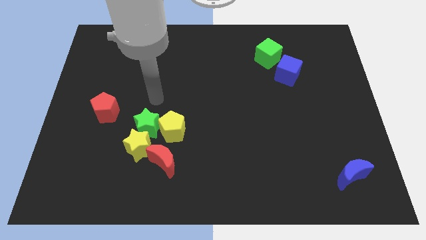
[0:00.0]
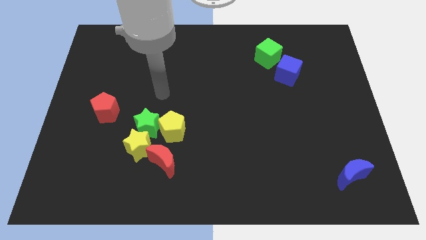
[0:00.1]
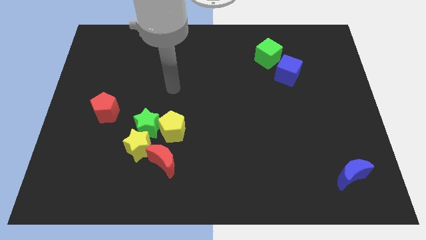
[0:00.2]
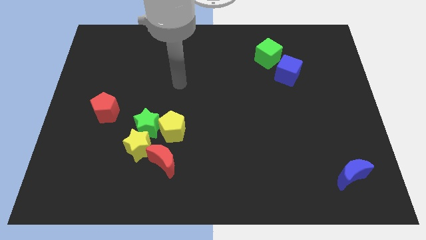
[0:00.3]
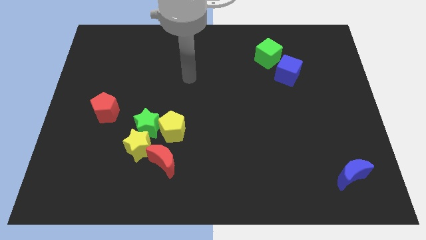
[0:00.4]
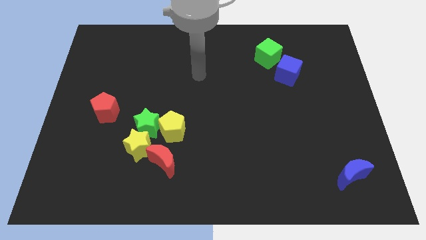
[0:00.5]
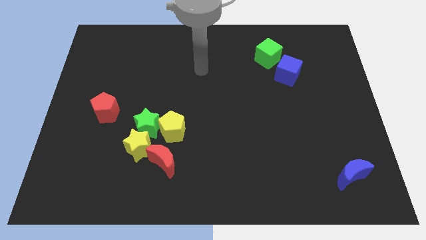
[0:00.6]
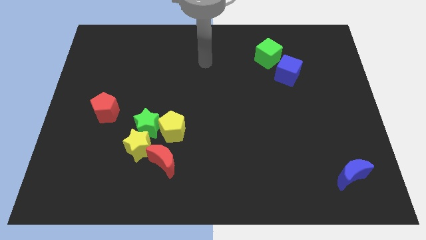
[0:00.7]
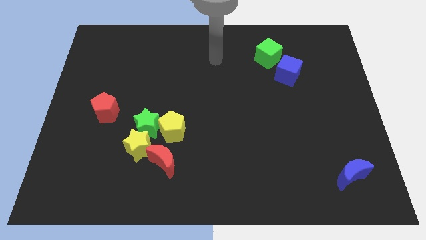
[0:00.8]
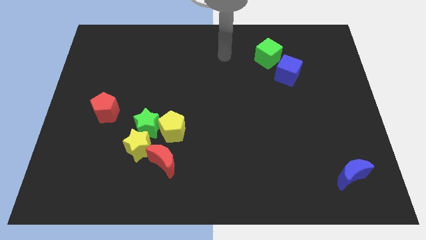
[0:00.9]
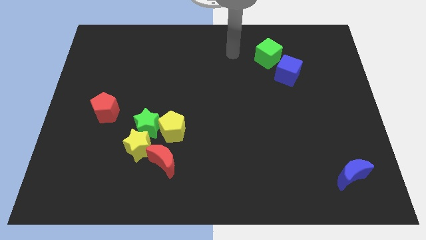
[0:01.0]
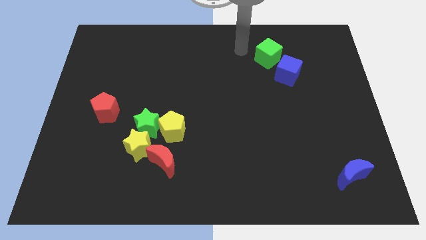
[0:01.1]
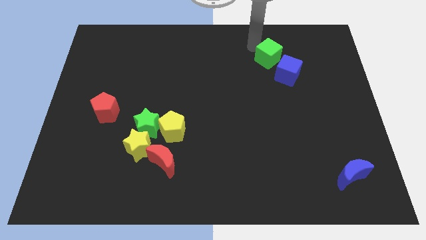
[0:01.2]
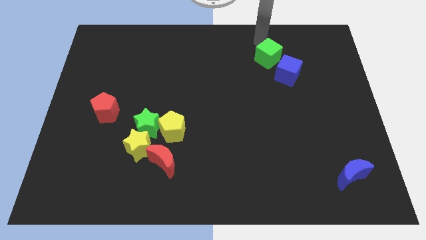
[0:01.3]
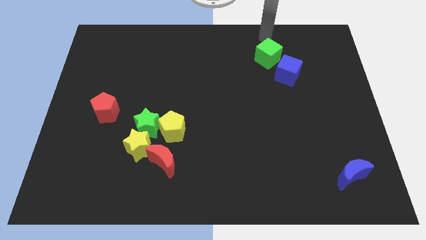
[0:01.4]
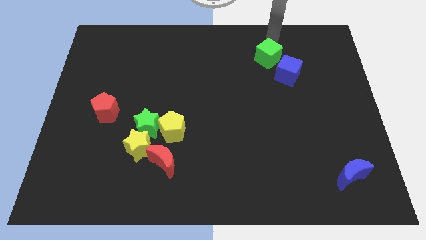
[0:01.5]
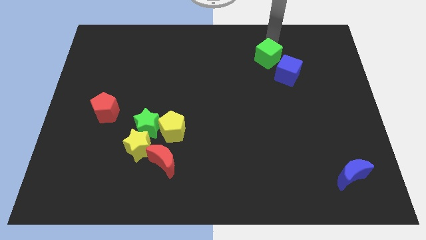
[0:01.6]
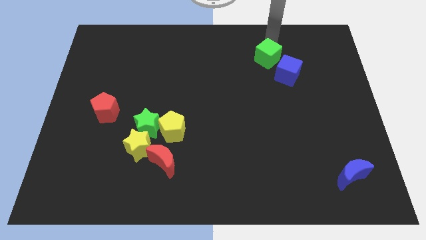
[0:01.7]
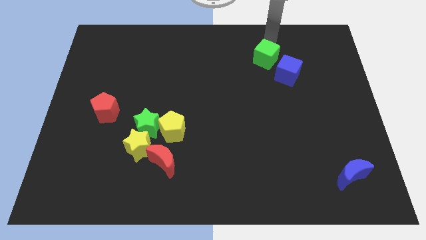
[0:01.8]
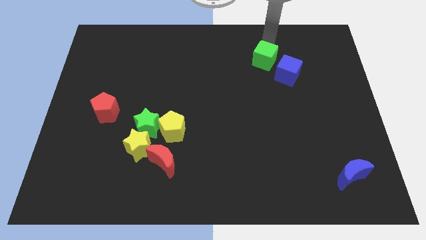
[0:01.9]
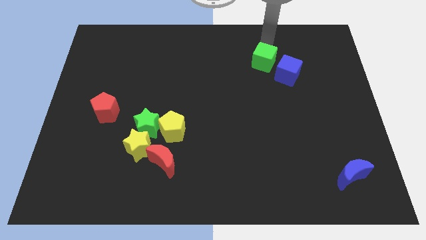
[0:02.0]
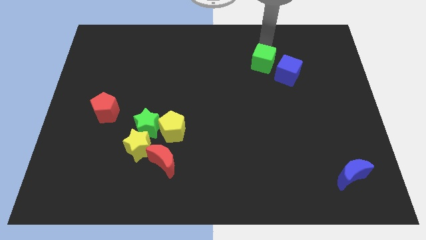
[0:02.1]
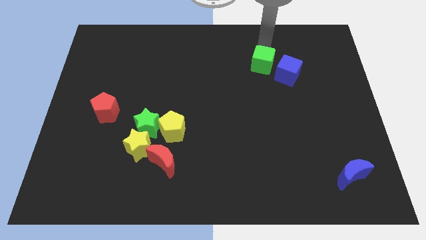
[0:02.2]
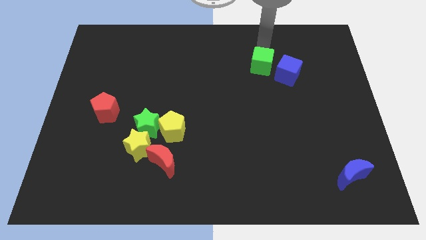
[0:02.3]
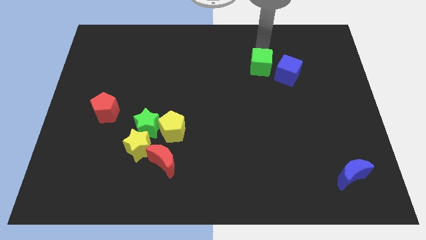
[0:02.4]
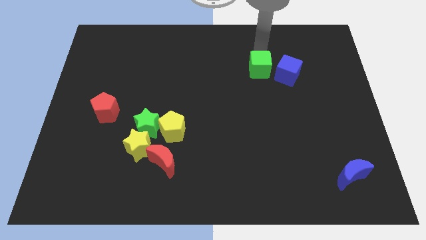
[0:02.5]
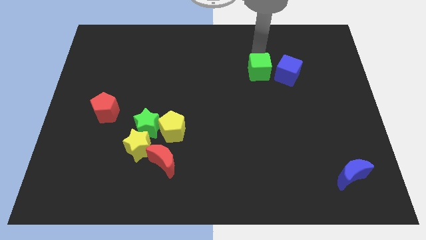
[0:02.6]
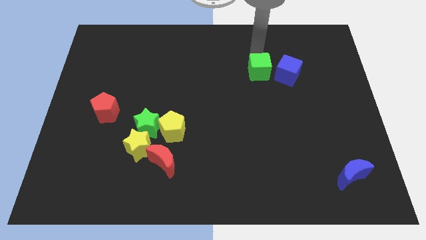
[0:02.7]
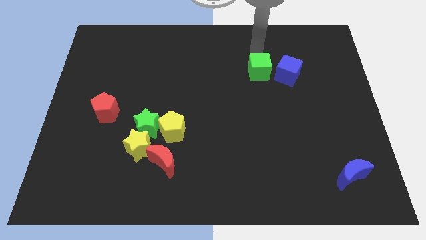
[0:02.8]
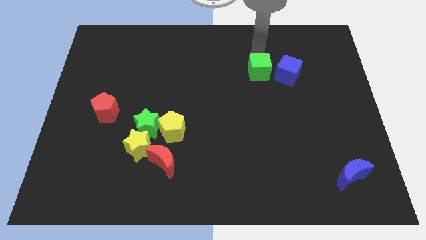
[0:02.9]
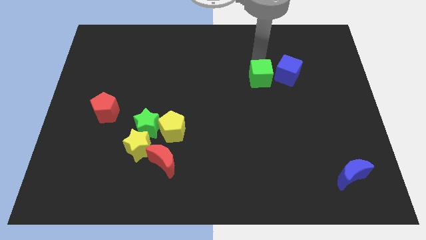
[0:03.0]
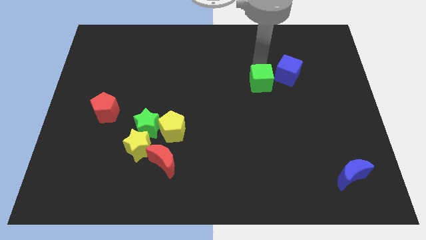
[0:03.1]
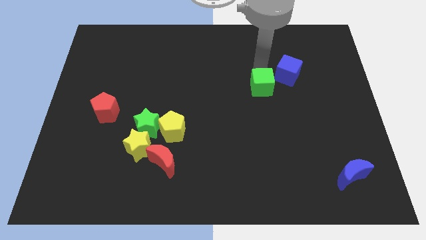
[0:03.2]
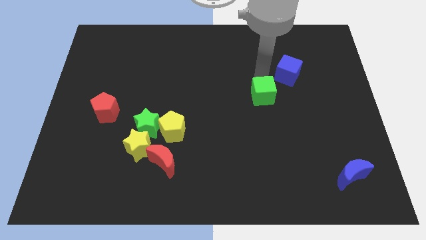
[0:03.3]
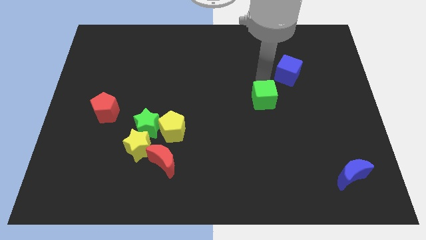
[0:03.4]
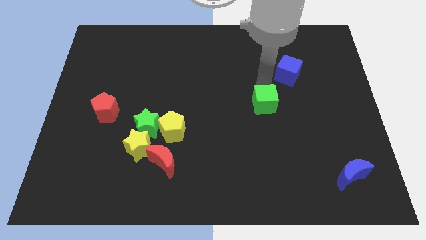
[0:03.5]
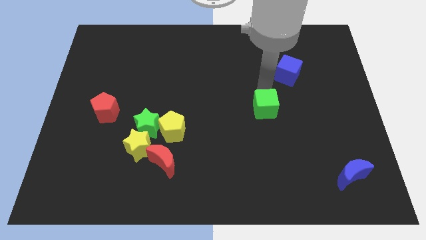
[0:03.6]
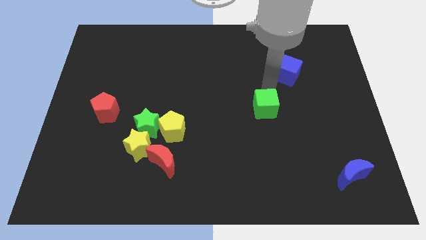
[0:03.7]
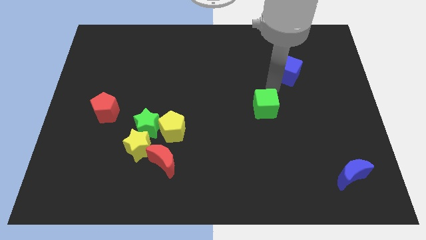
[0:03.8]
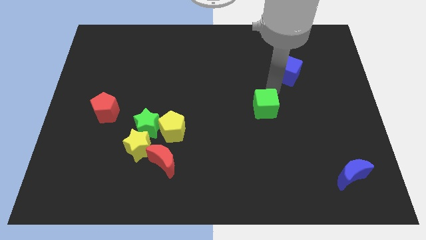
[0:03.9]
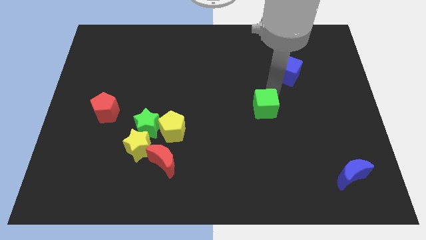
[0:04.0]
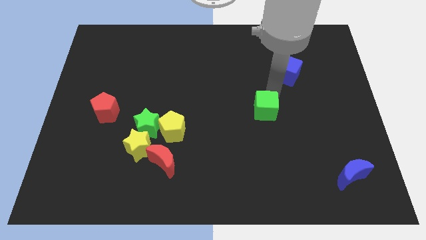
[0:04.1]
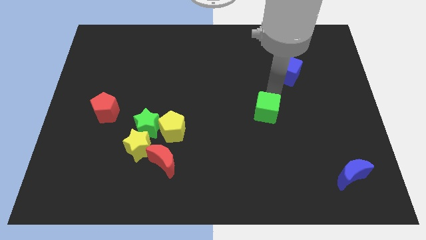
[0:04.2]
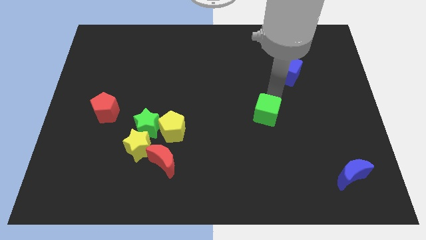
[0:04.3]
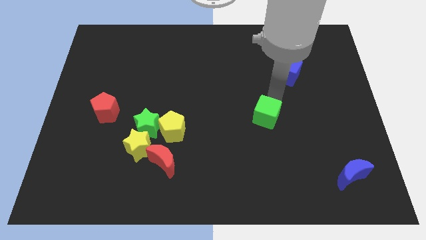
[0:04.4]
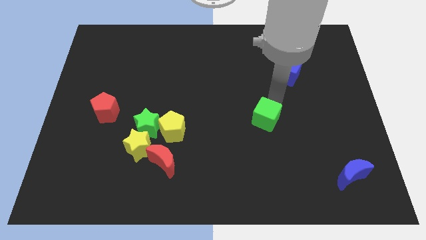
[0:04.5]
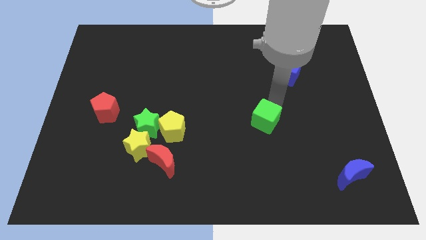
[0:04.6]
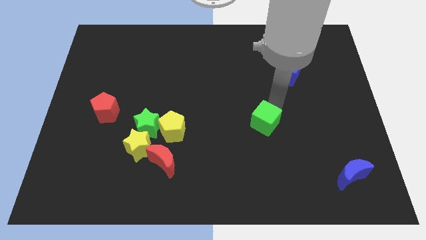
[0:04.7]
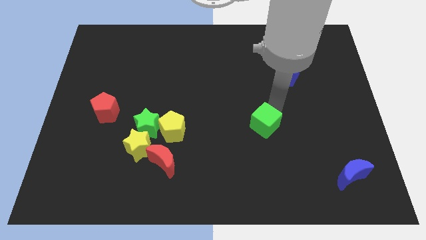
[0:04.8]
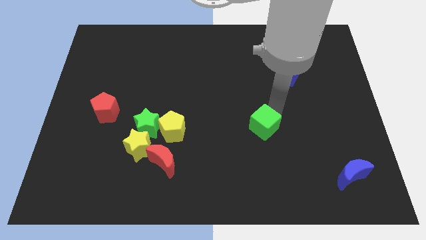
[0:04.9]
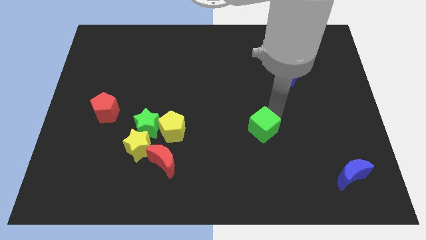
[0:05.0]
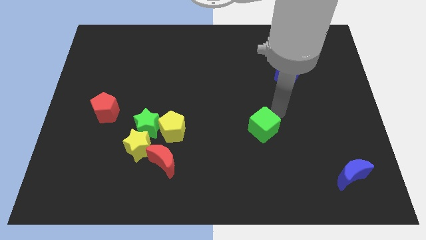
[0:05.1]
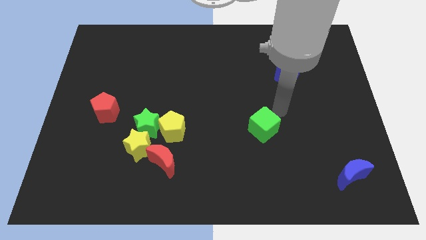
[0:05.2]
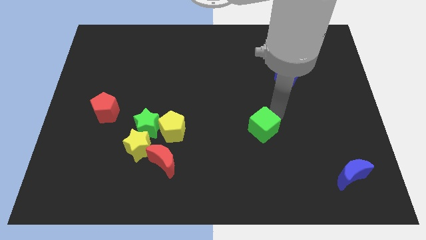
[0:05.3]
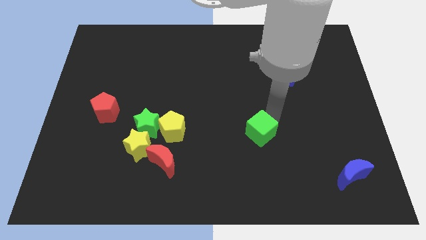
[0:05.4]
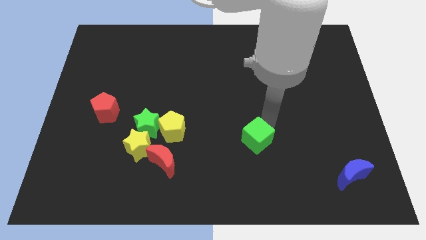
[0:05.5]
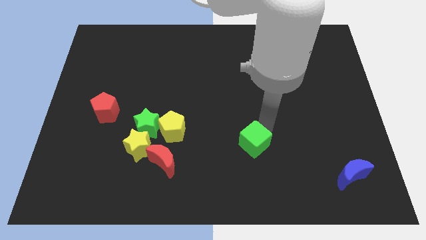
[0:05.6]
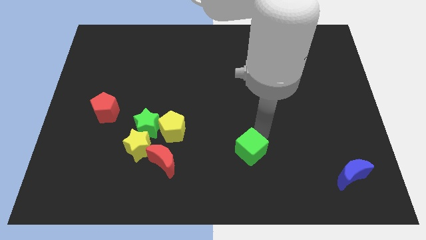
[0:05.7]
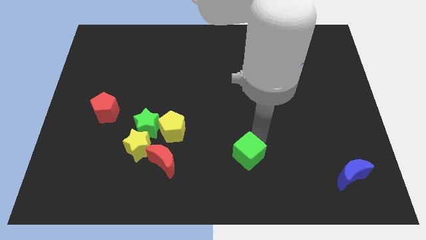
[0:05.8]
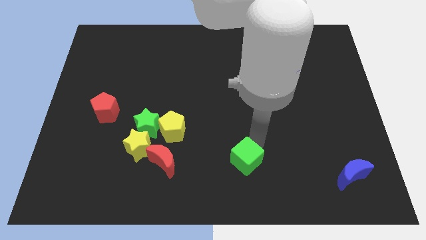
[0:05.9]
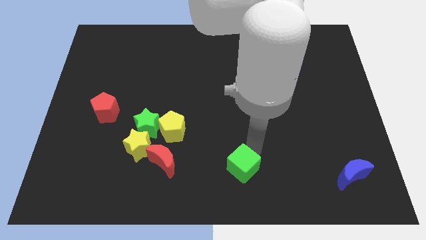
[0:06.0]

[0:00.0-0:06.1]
move the green cube to the bottom

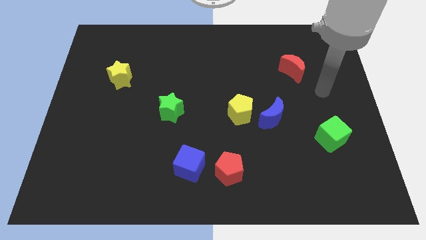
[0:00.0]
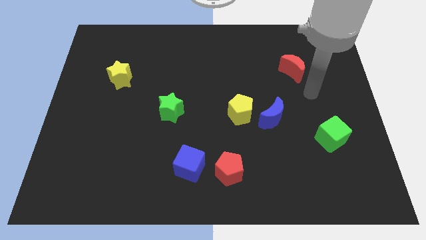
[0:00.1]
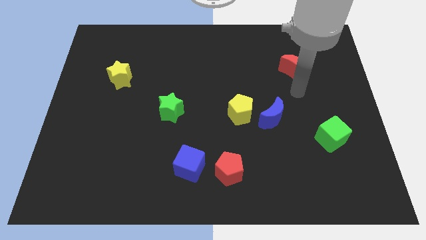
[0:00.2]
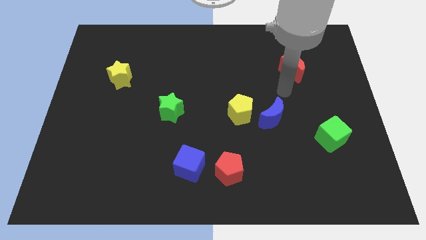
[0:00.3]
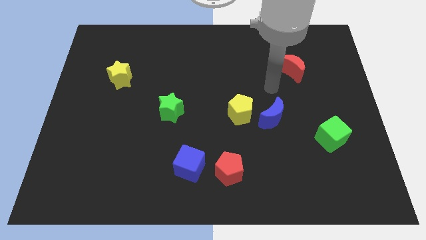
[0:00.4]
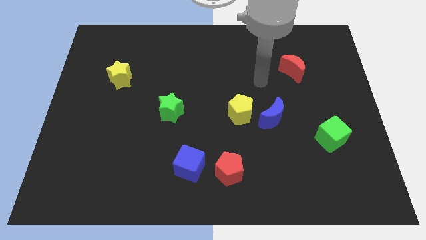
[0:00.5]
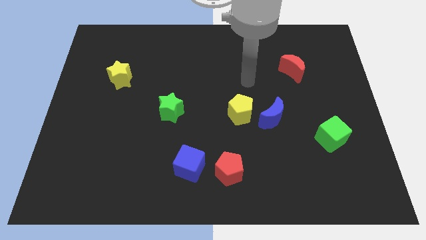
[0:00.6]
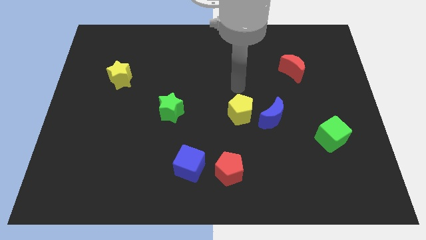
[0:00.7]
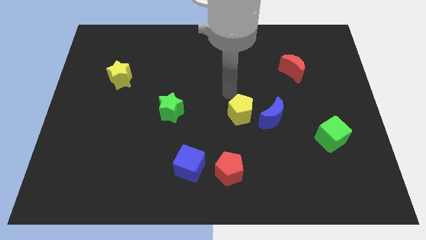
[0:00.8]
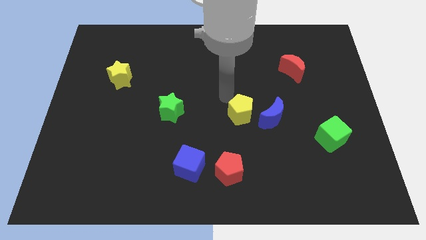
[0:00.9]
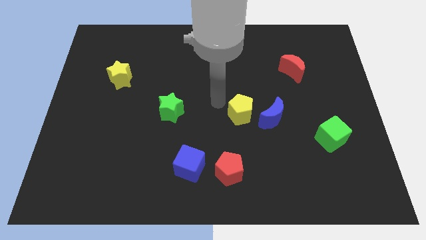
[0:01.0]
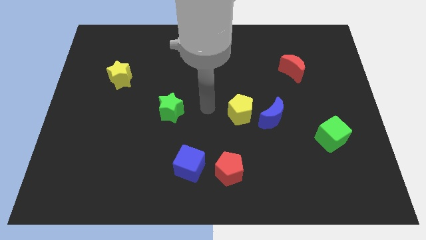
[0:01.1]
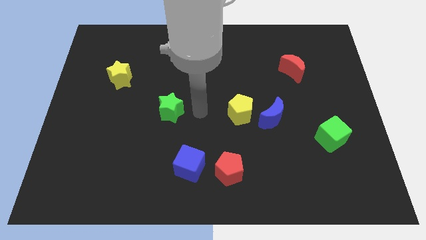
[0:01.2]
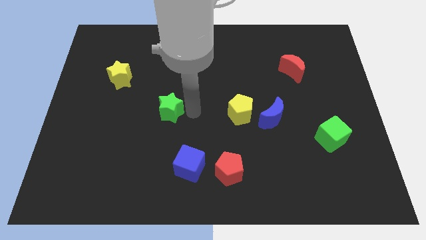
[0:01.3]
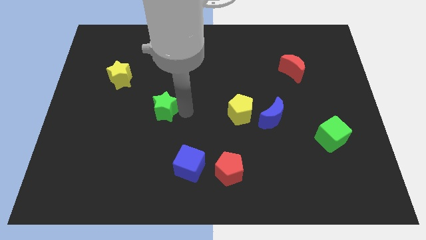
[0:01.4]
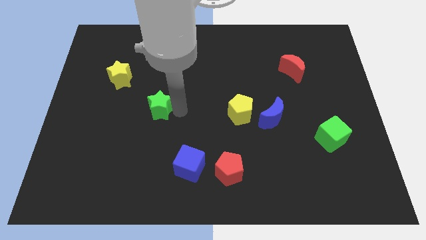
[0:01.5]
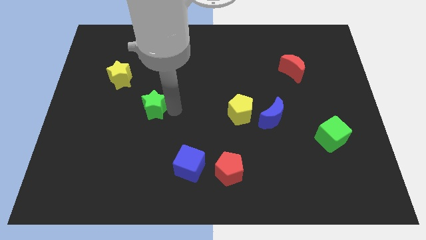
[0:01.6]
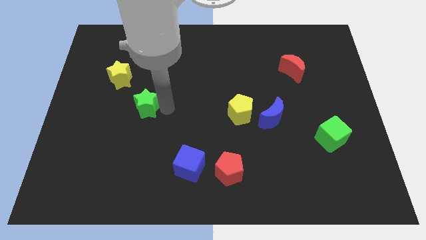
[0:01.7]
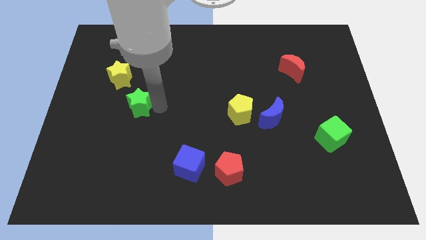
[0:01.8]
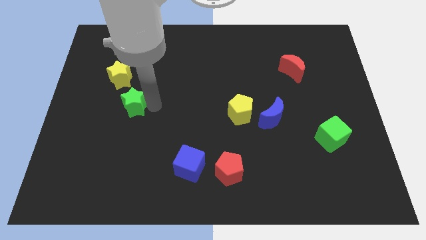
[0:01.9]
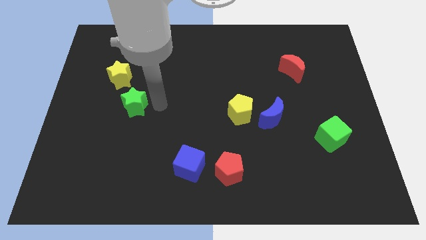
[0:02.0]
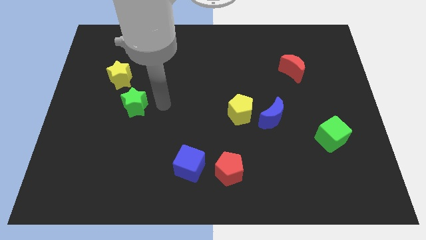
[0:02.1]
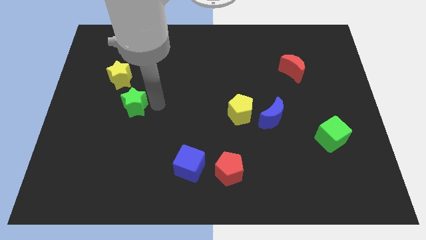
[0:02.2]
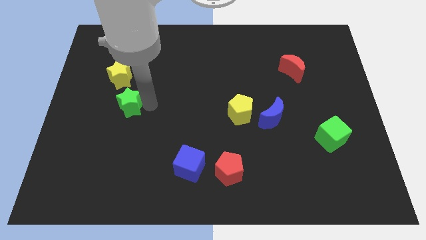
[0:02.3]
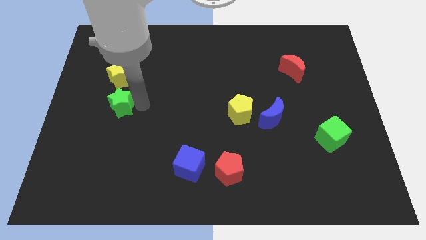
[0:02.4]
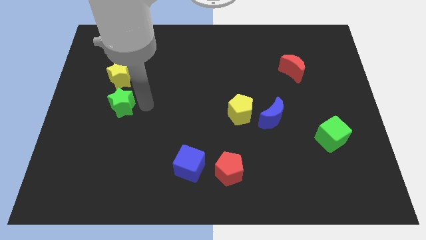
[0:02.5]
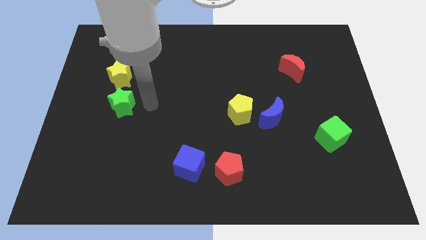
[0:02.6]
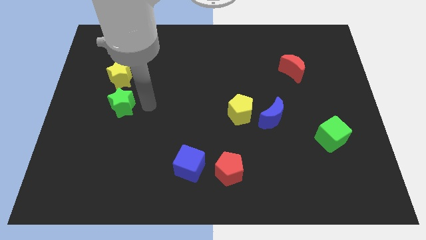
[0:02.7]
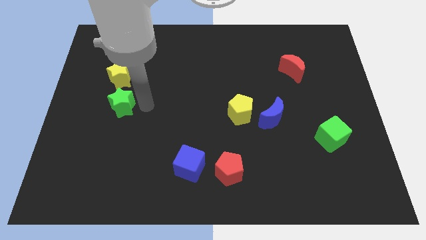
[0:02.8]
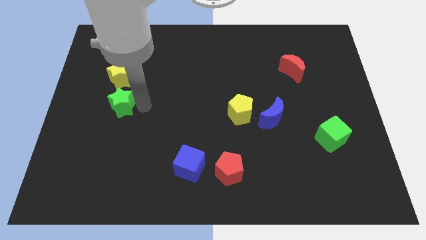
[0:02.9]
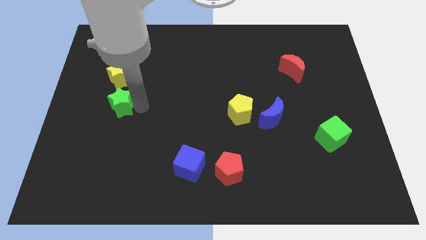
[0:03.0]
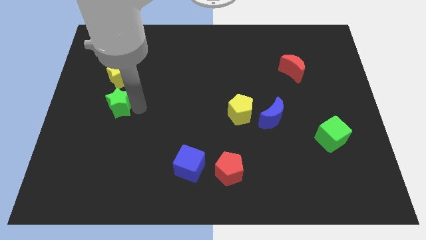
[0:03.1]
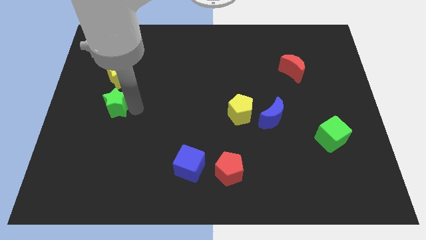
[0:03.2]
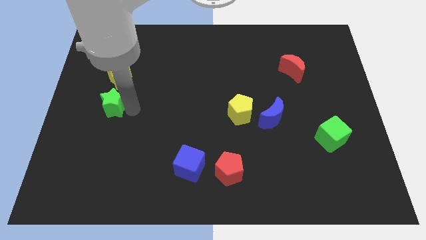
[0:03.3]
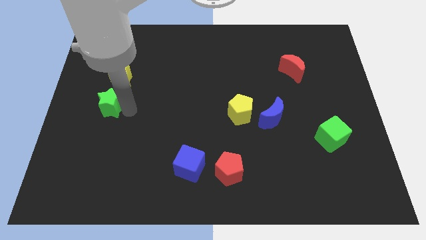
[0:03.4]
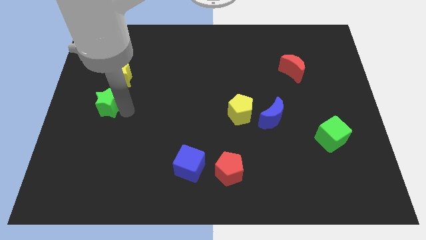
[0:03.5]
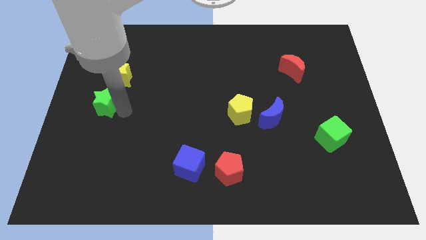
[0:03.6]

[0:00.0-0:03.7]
slide the green star to the left side of the board
